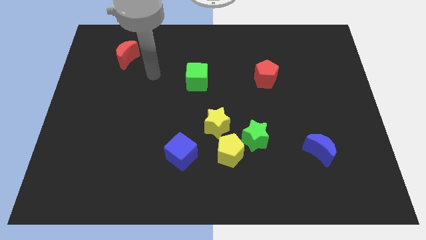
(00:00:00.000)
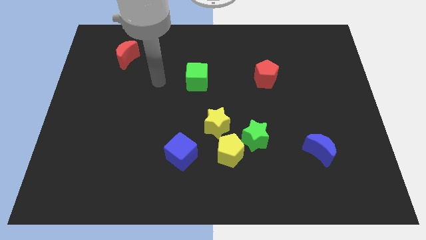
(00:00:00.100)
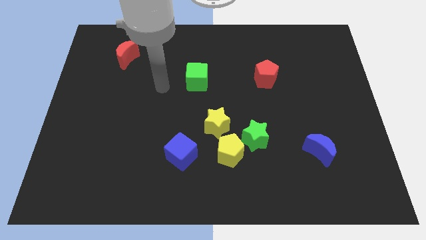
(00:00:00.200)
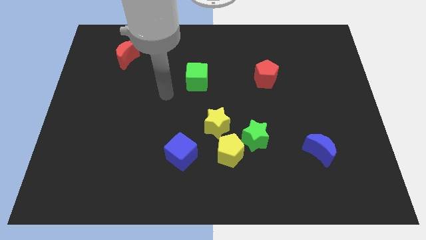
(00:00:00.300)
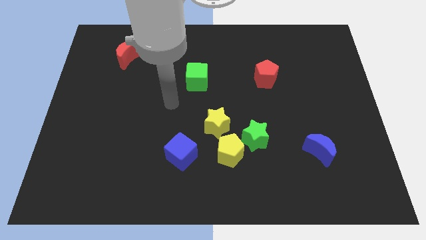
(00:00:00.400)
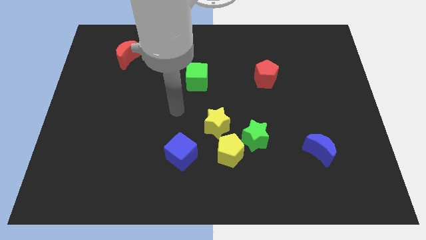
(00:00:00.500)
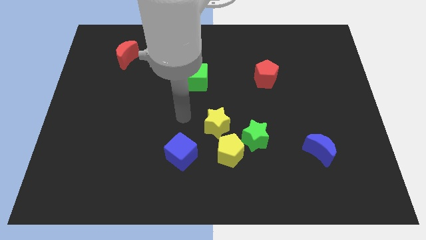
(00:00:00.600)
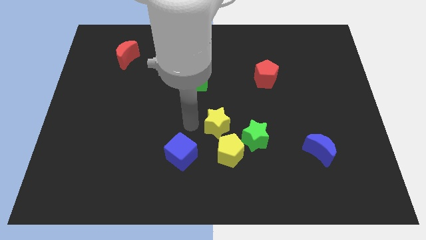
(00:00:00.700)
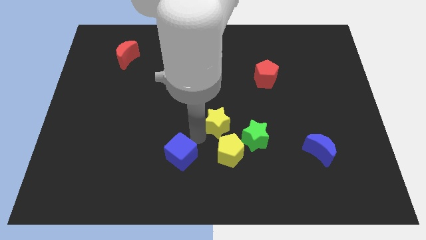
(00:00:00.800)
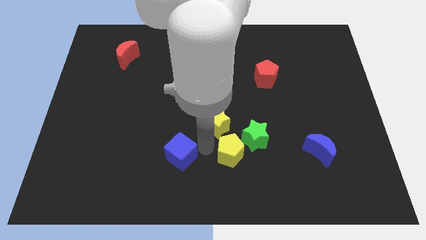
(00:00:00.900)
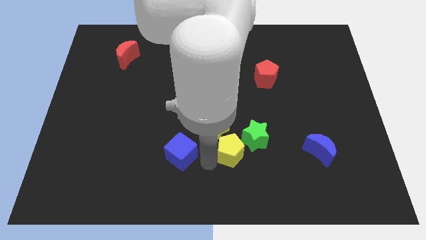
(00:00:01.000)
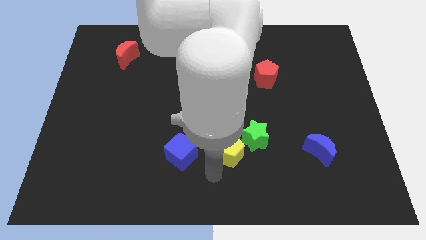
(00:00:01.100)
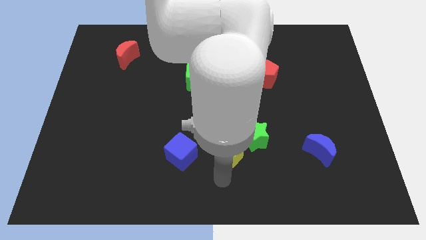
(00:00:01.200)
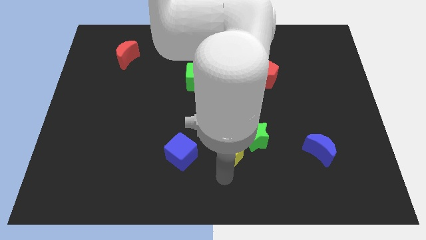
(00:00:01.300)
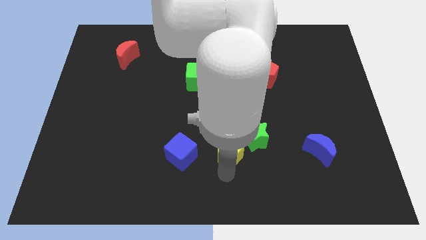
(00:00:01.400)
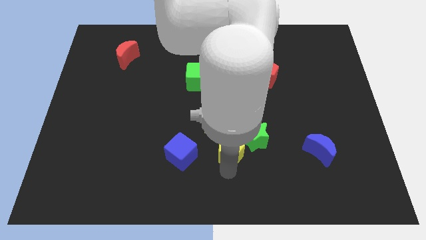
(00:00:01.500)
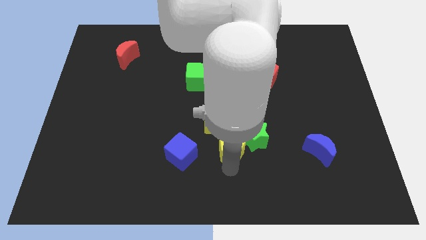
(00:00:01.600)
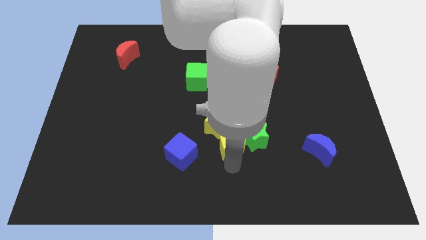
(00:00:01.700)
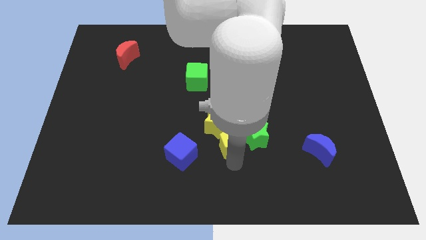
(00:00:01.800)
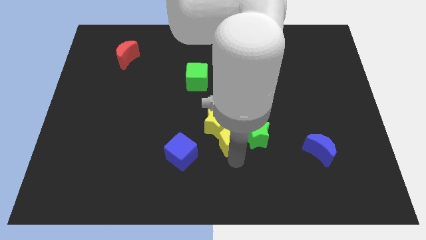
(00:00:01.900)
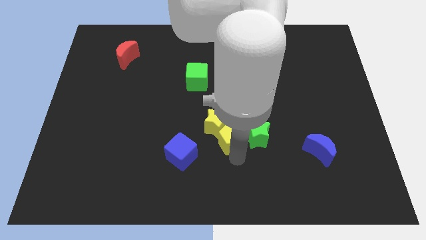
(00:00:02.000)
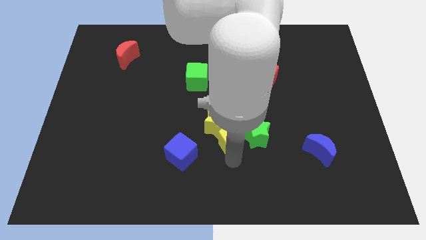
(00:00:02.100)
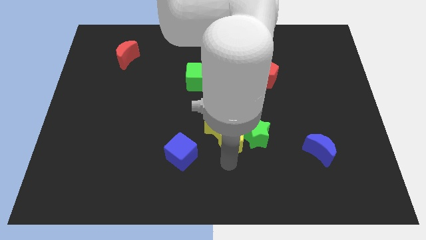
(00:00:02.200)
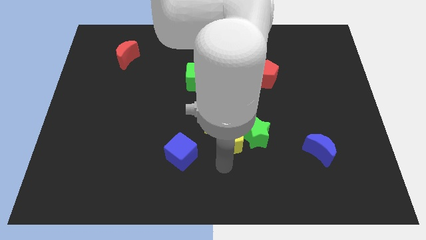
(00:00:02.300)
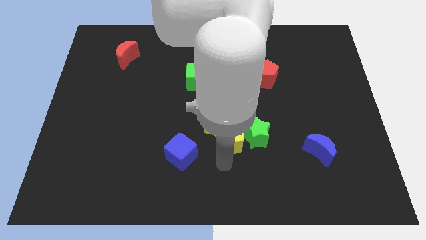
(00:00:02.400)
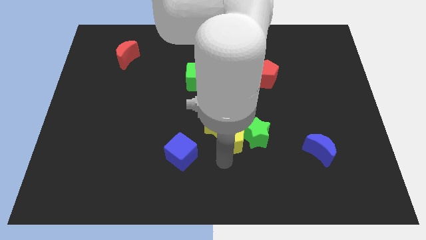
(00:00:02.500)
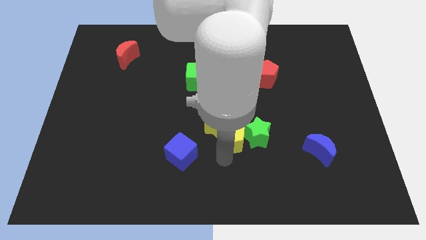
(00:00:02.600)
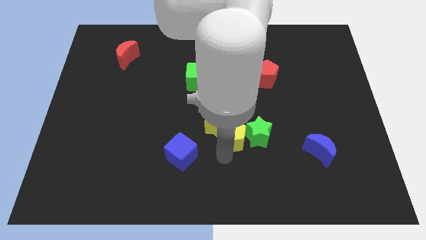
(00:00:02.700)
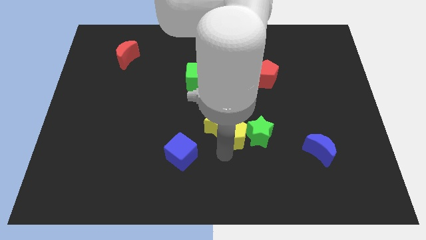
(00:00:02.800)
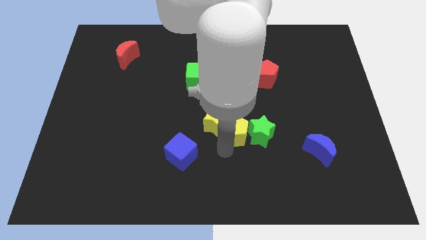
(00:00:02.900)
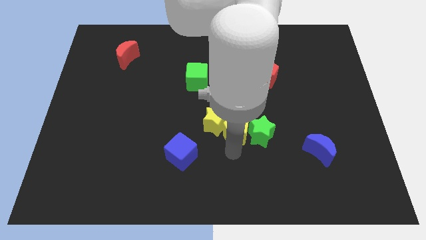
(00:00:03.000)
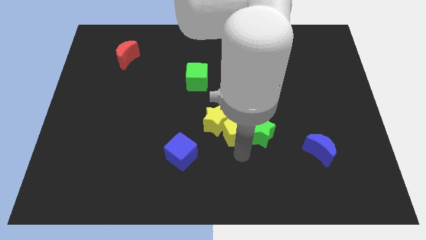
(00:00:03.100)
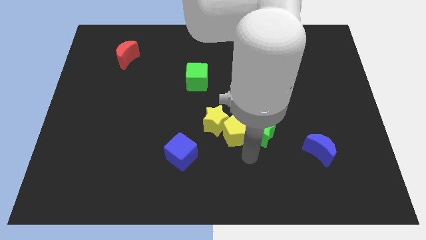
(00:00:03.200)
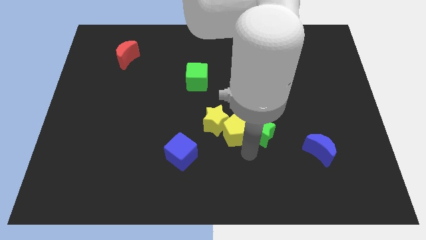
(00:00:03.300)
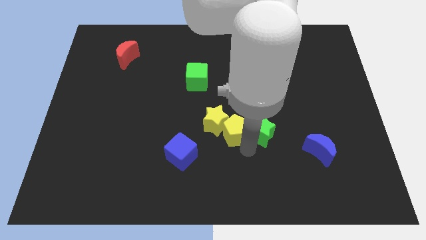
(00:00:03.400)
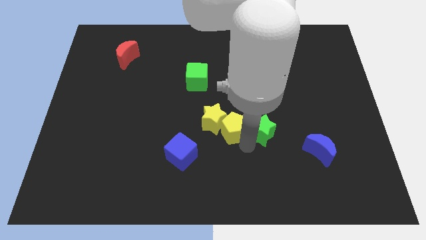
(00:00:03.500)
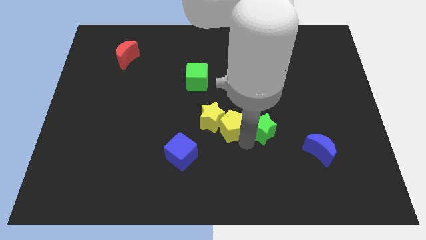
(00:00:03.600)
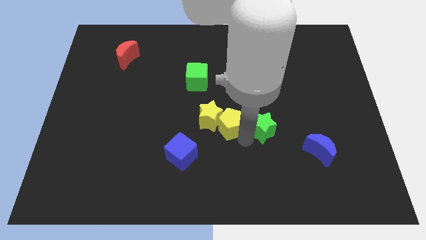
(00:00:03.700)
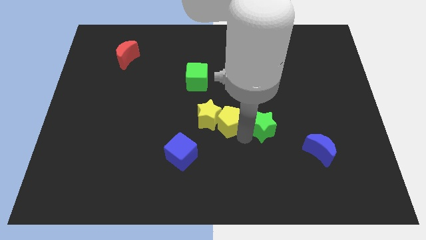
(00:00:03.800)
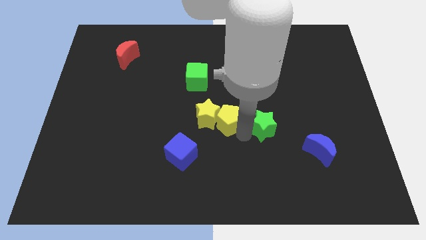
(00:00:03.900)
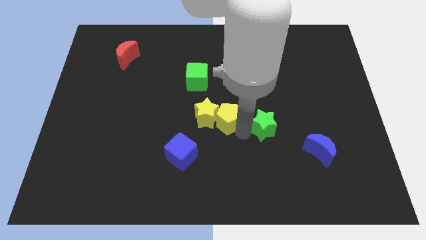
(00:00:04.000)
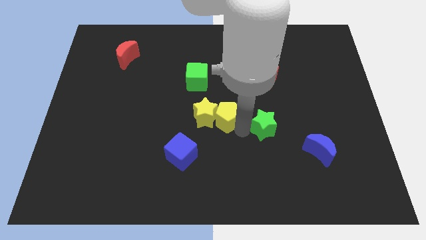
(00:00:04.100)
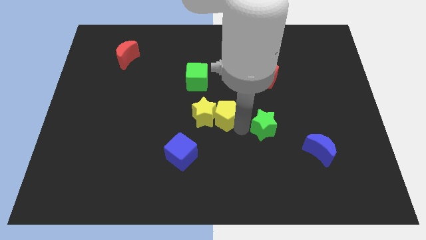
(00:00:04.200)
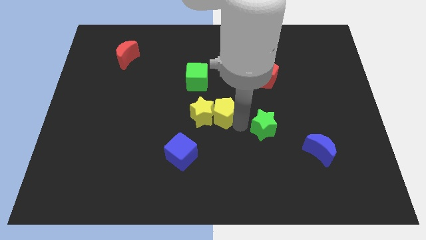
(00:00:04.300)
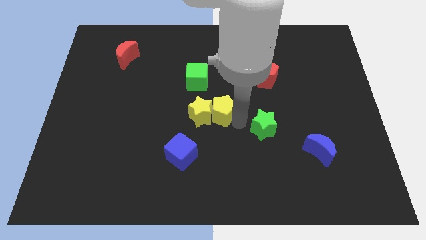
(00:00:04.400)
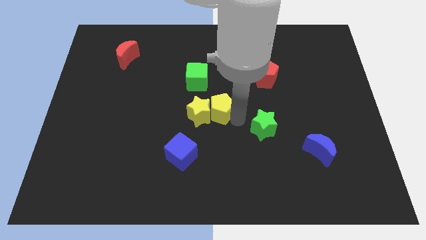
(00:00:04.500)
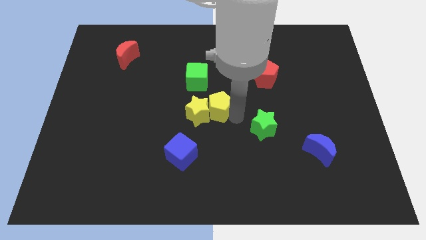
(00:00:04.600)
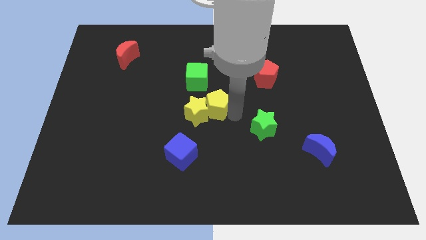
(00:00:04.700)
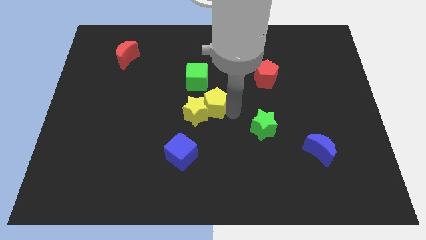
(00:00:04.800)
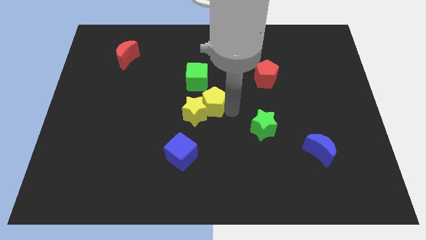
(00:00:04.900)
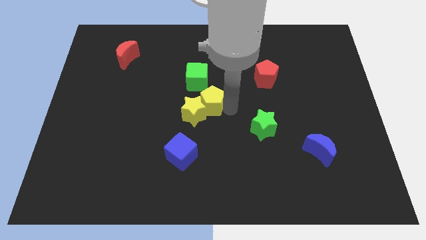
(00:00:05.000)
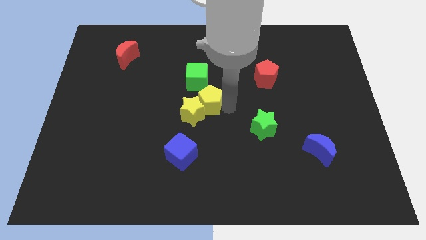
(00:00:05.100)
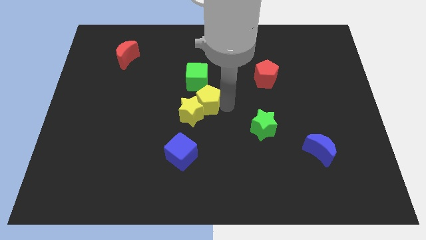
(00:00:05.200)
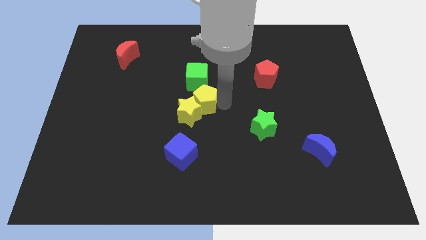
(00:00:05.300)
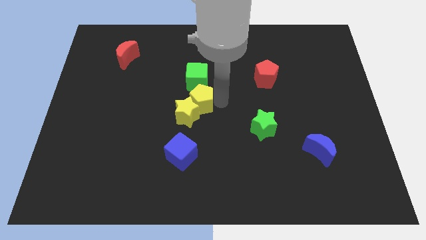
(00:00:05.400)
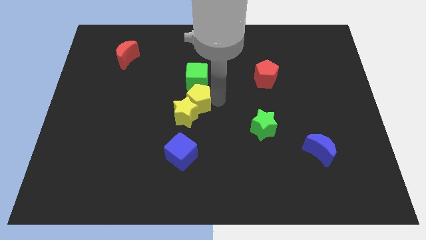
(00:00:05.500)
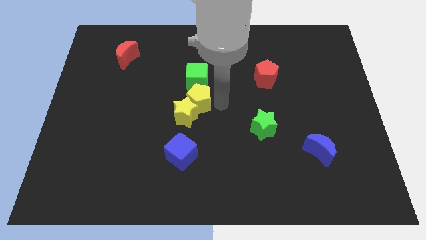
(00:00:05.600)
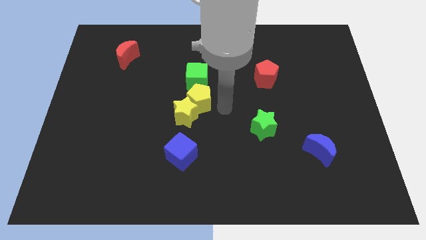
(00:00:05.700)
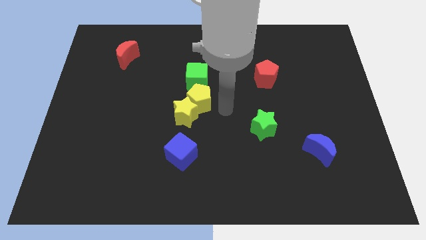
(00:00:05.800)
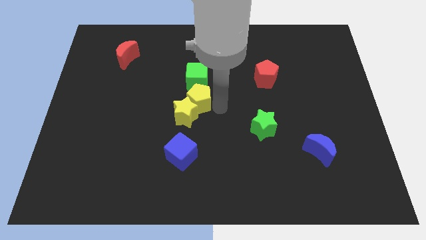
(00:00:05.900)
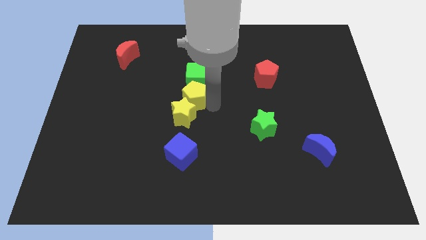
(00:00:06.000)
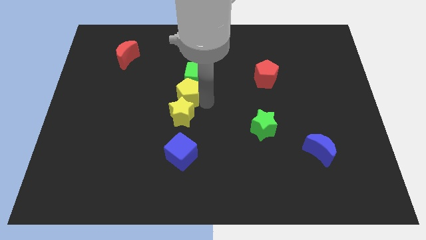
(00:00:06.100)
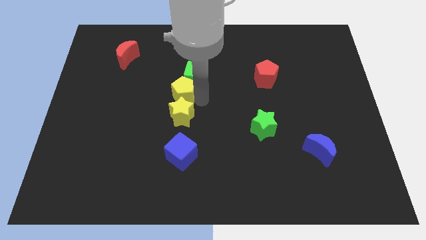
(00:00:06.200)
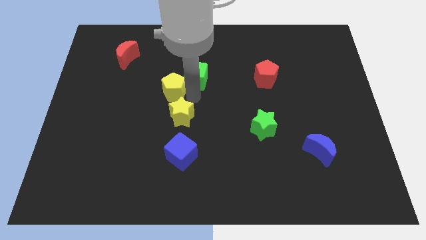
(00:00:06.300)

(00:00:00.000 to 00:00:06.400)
slide the yellow pentagon upwards and to the left diagonally

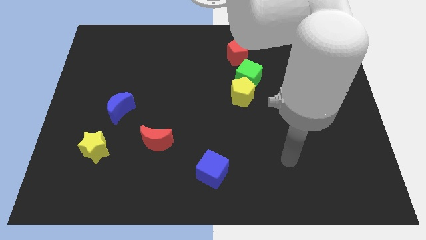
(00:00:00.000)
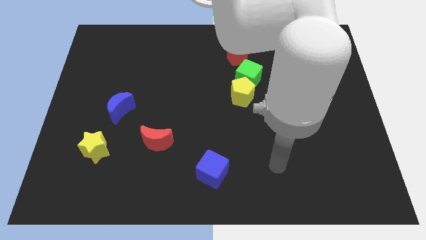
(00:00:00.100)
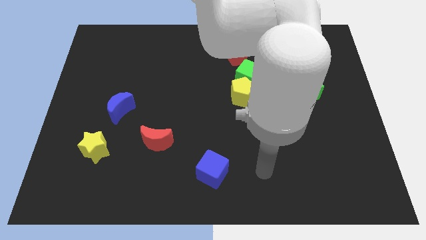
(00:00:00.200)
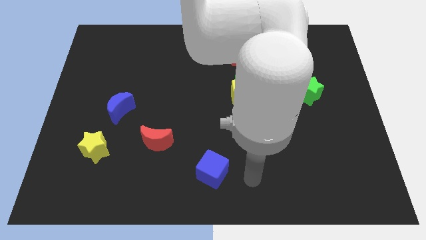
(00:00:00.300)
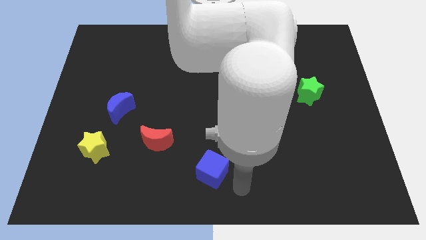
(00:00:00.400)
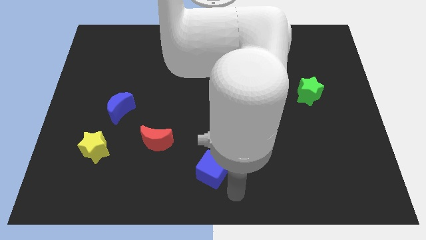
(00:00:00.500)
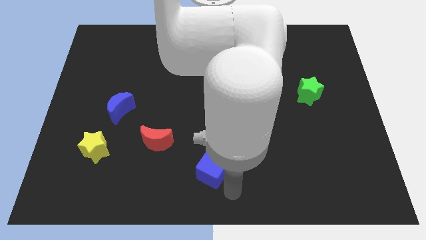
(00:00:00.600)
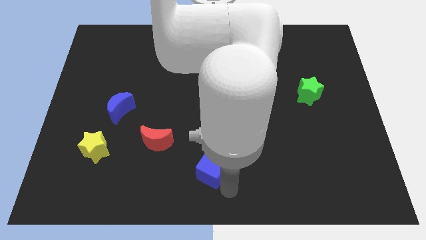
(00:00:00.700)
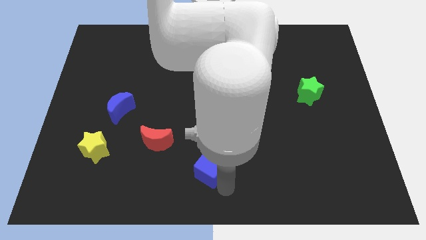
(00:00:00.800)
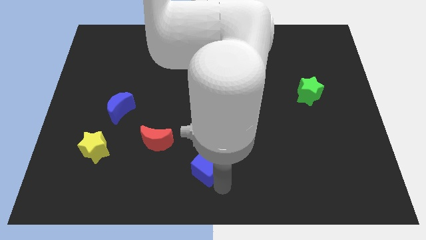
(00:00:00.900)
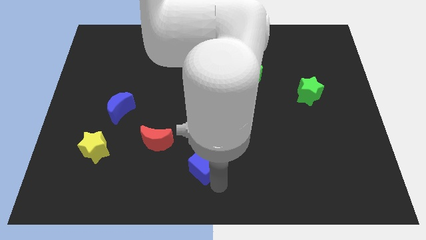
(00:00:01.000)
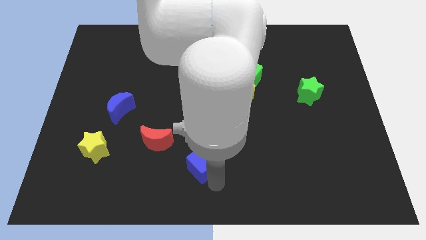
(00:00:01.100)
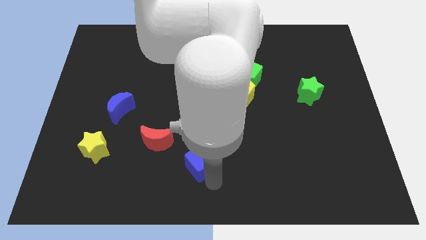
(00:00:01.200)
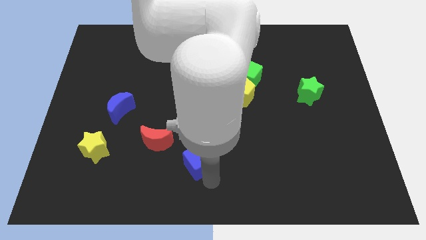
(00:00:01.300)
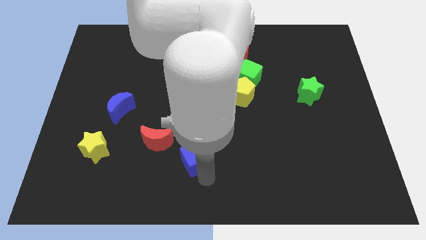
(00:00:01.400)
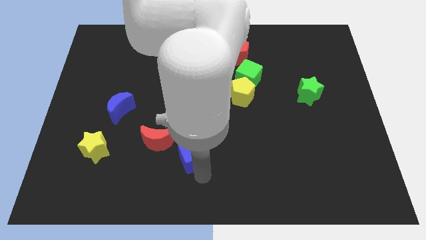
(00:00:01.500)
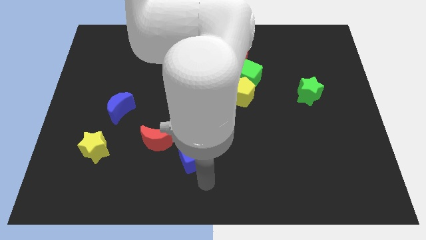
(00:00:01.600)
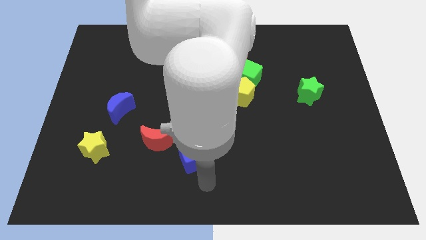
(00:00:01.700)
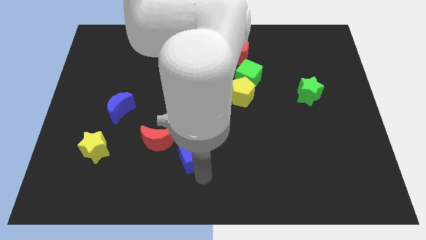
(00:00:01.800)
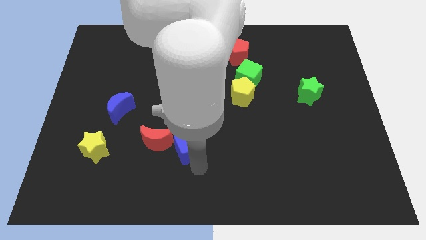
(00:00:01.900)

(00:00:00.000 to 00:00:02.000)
slightly push the blue cube up and to the left
